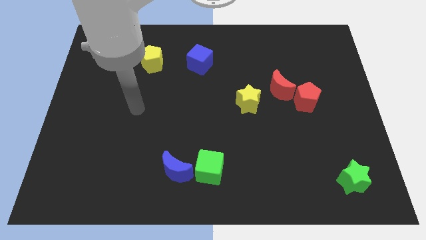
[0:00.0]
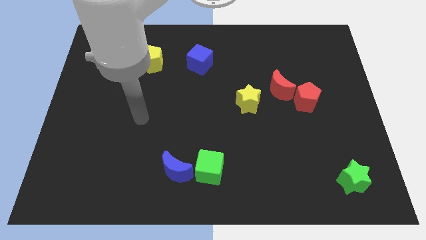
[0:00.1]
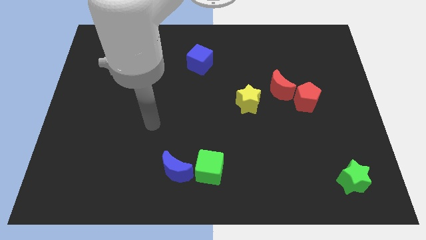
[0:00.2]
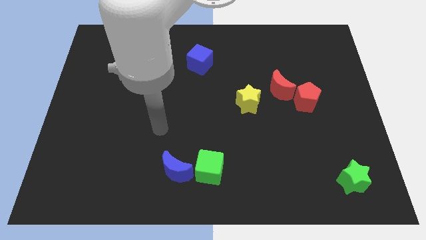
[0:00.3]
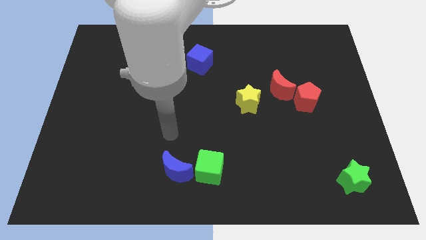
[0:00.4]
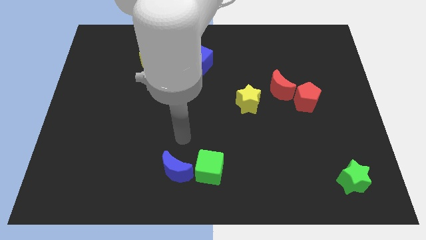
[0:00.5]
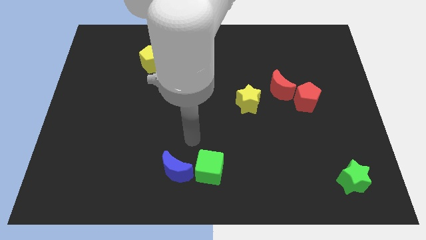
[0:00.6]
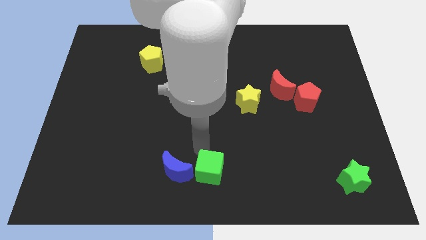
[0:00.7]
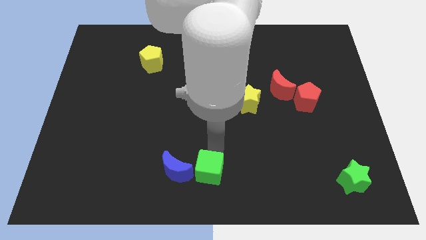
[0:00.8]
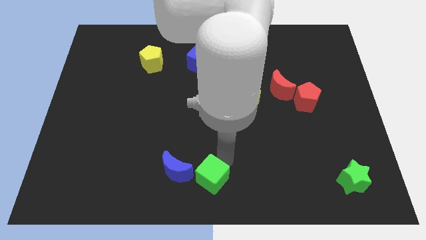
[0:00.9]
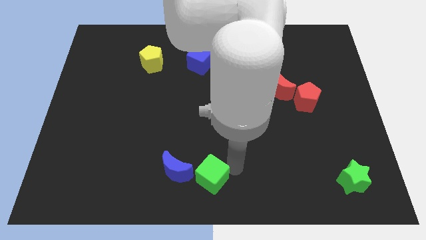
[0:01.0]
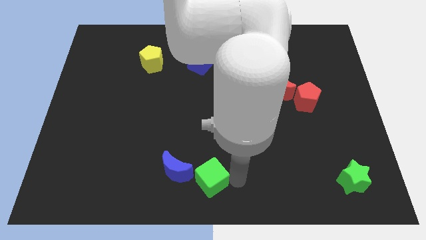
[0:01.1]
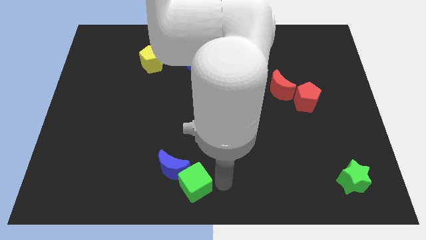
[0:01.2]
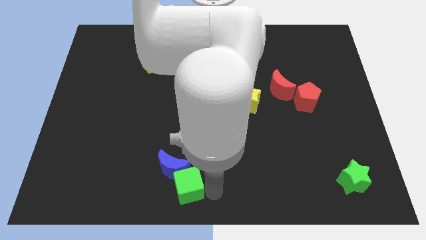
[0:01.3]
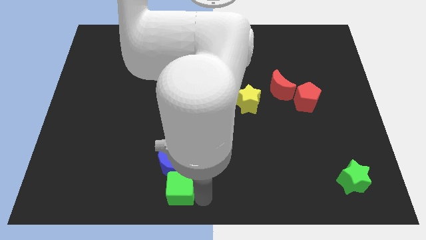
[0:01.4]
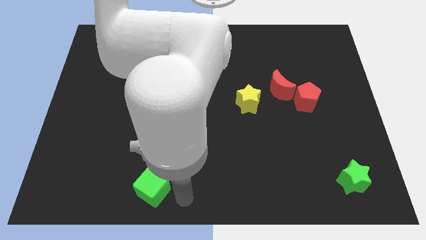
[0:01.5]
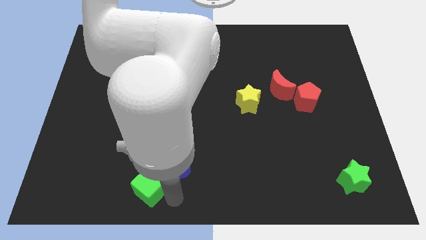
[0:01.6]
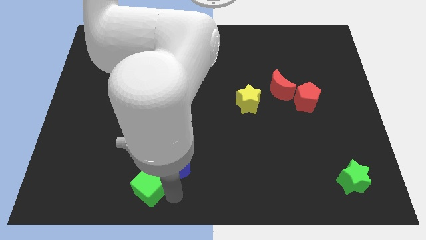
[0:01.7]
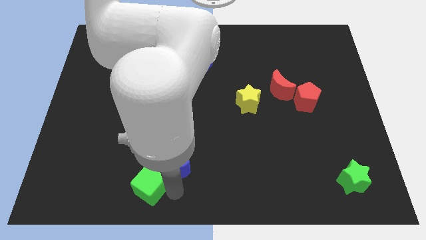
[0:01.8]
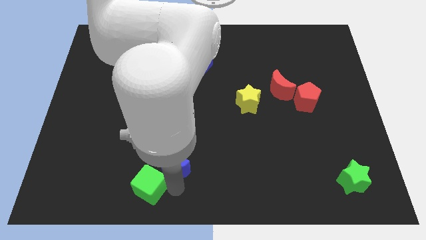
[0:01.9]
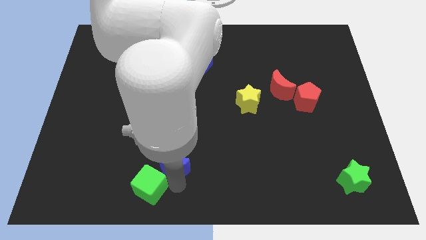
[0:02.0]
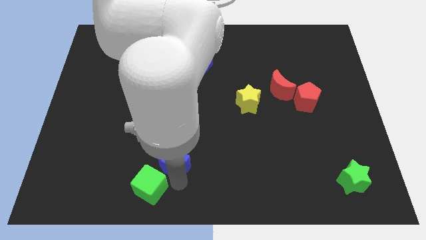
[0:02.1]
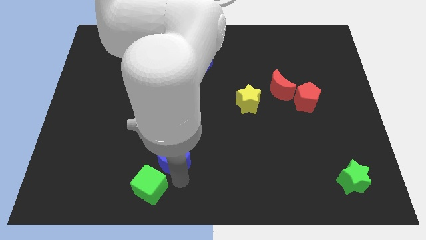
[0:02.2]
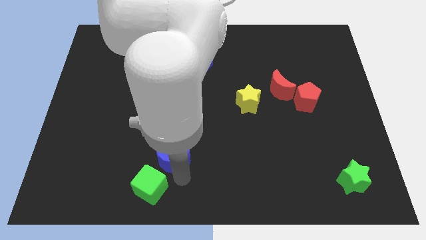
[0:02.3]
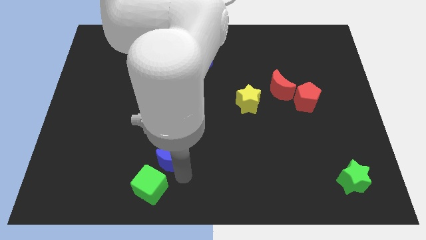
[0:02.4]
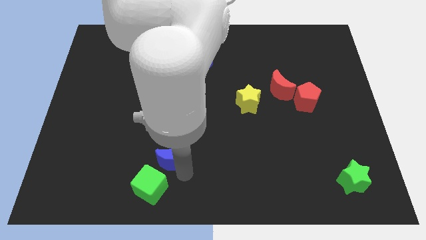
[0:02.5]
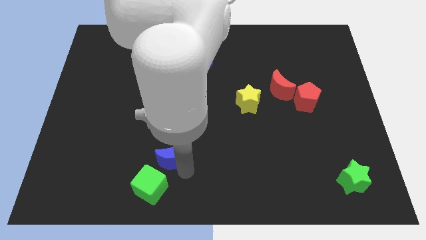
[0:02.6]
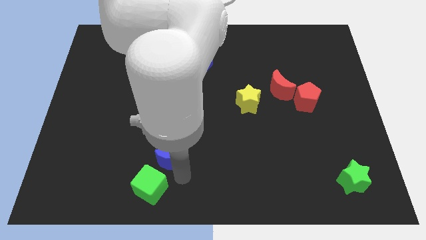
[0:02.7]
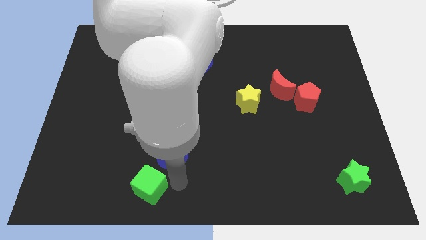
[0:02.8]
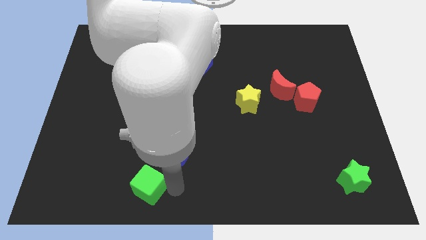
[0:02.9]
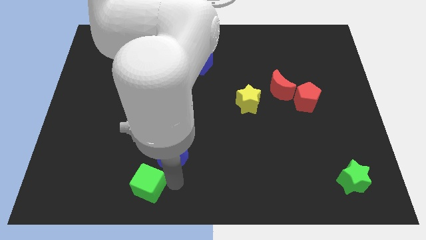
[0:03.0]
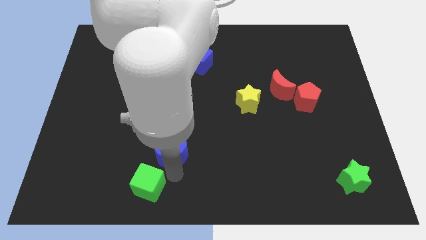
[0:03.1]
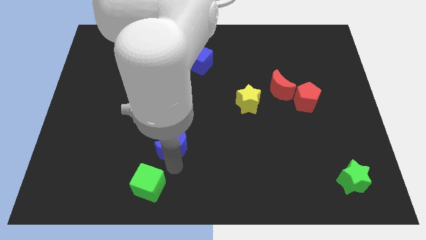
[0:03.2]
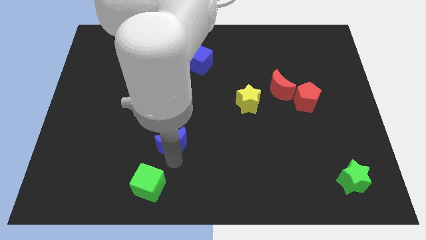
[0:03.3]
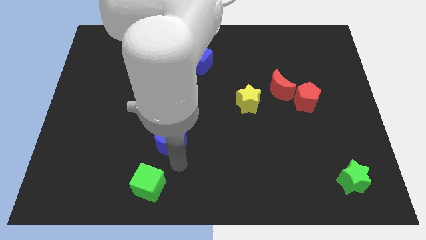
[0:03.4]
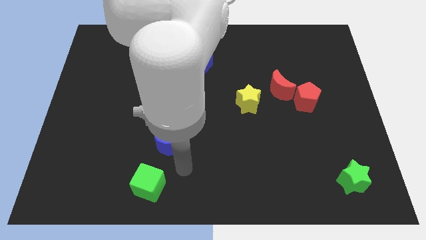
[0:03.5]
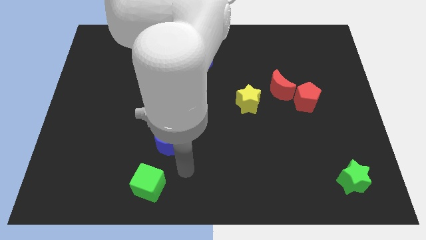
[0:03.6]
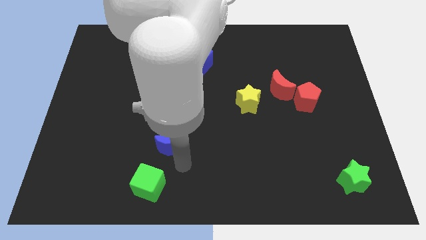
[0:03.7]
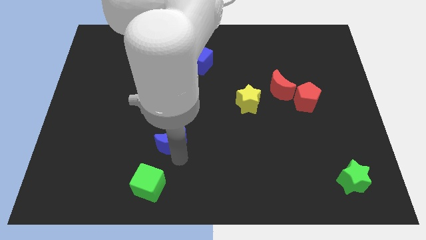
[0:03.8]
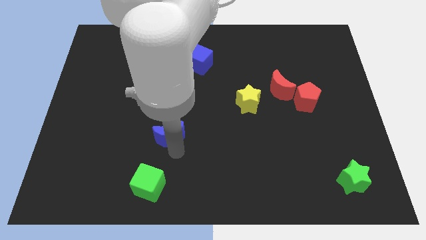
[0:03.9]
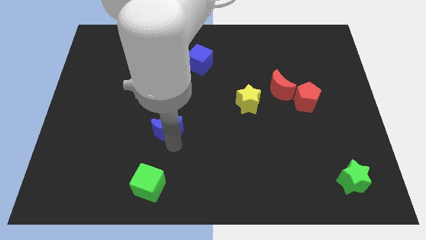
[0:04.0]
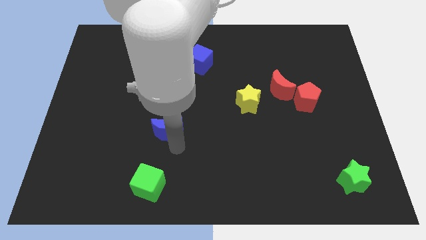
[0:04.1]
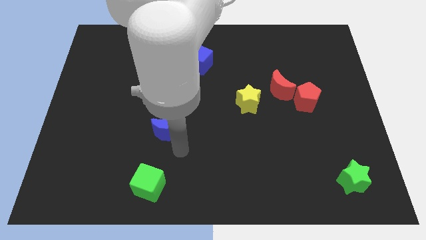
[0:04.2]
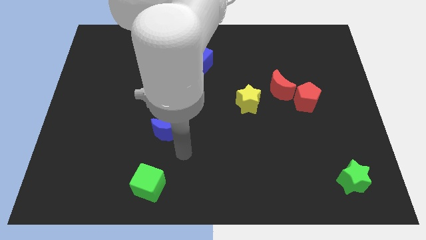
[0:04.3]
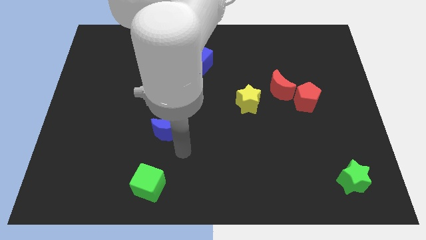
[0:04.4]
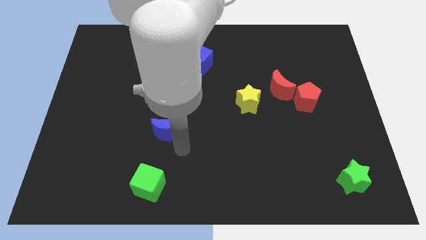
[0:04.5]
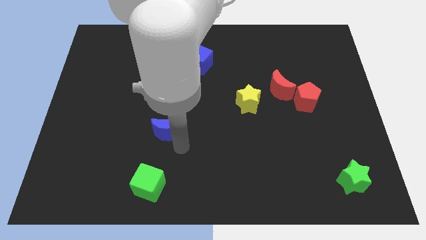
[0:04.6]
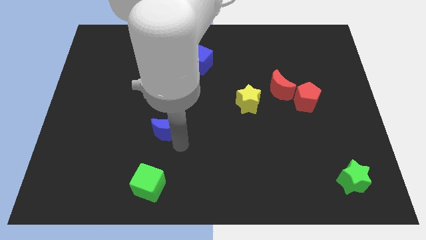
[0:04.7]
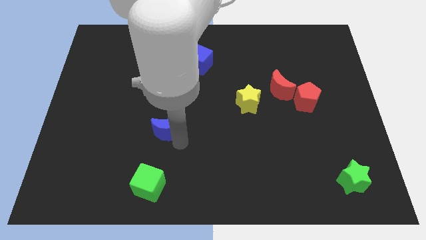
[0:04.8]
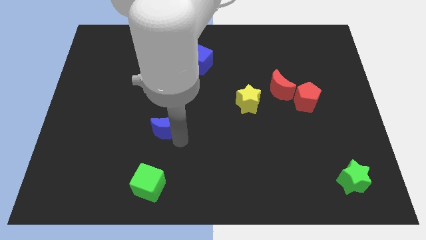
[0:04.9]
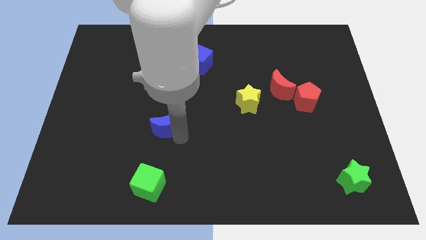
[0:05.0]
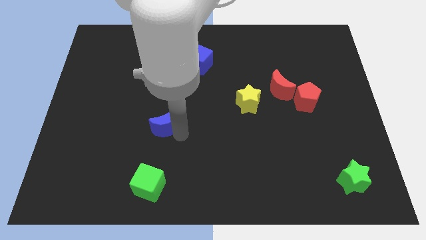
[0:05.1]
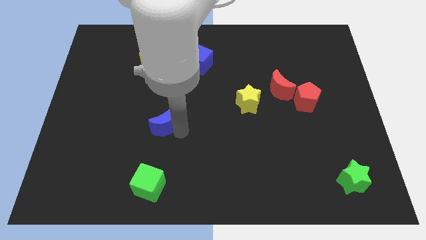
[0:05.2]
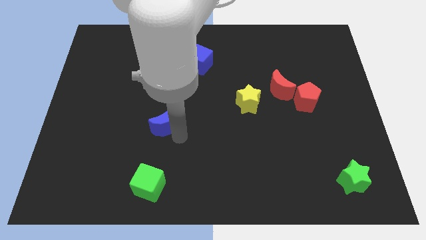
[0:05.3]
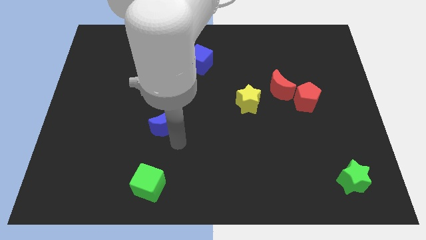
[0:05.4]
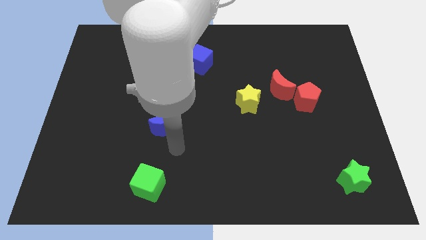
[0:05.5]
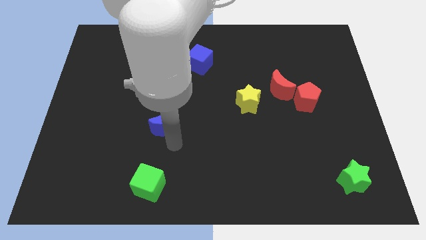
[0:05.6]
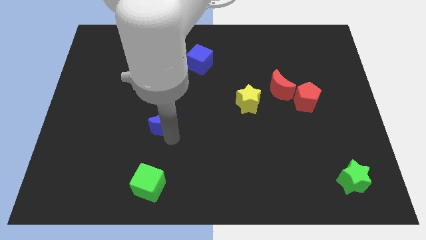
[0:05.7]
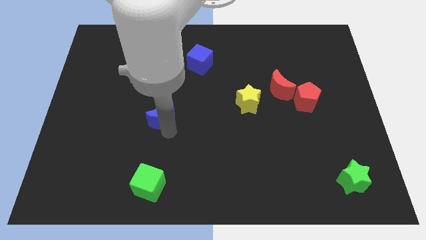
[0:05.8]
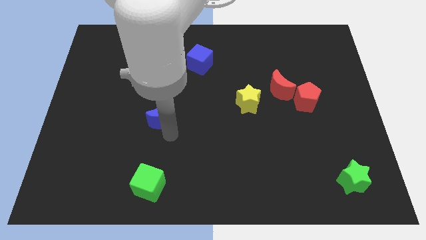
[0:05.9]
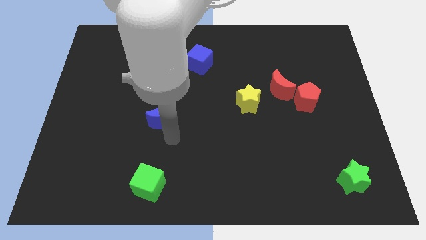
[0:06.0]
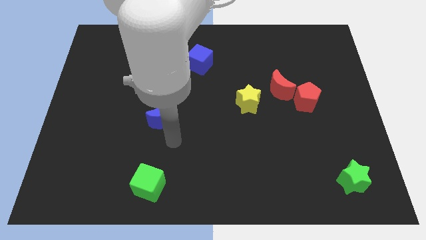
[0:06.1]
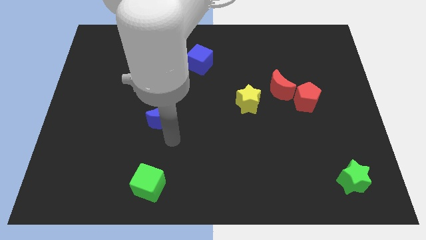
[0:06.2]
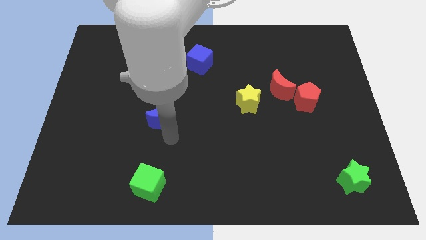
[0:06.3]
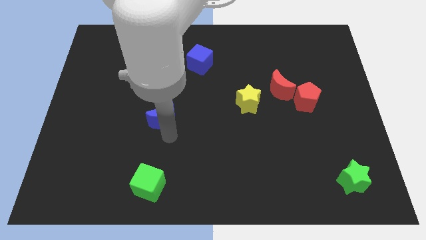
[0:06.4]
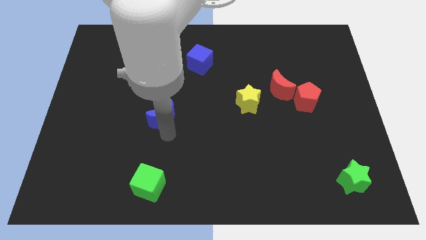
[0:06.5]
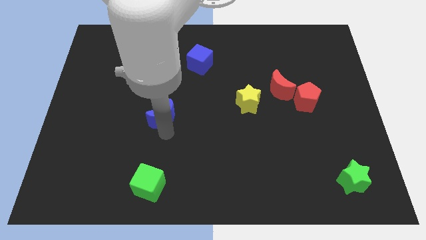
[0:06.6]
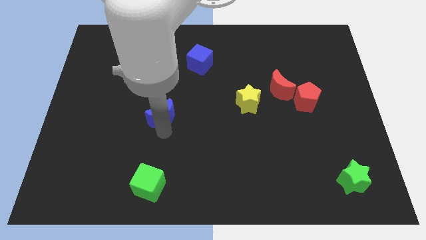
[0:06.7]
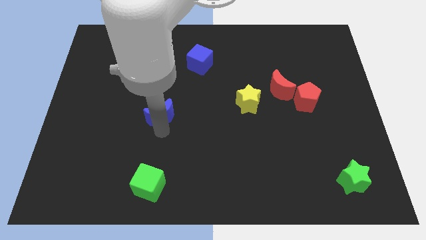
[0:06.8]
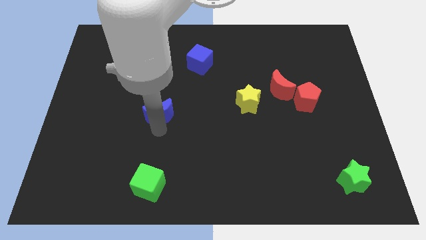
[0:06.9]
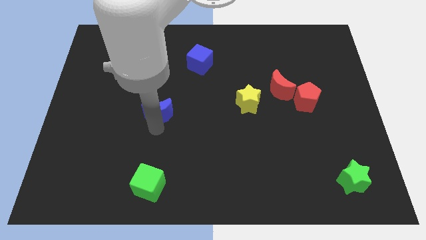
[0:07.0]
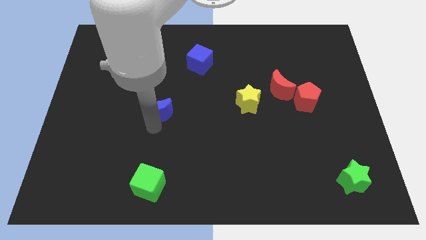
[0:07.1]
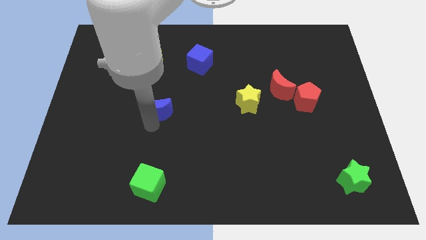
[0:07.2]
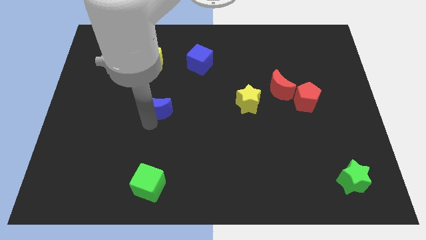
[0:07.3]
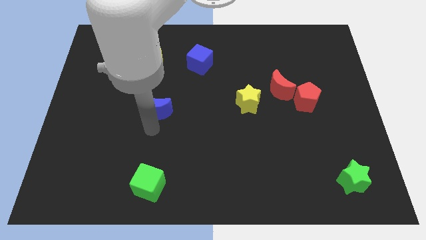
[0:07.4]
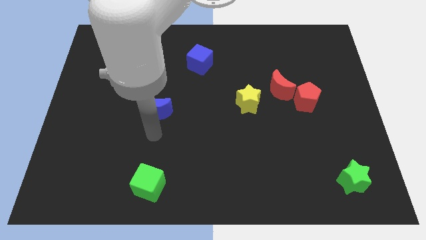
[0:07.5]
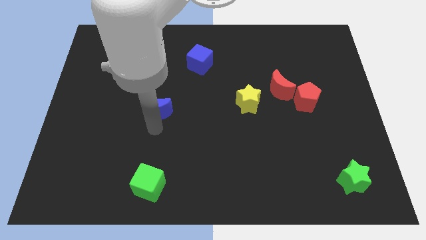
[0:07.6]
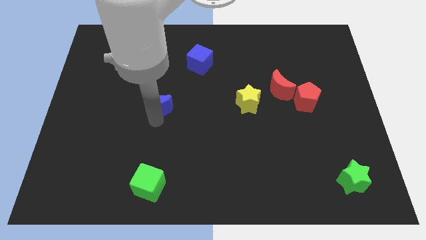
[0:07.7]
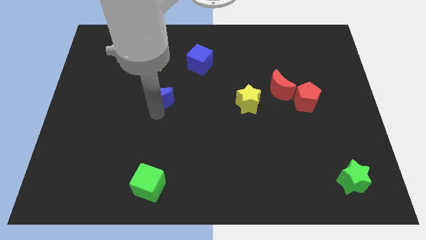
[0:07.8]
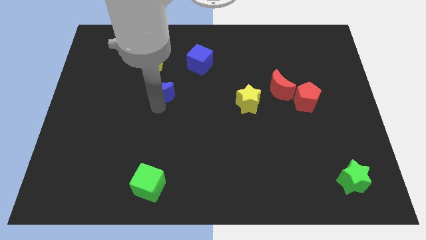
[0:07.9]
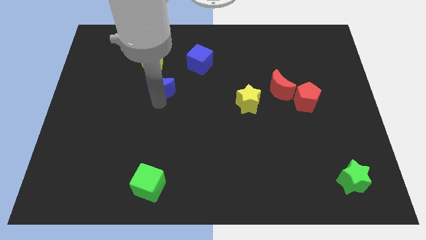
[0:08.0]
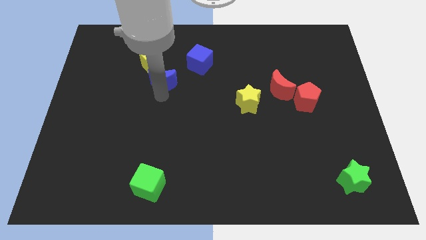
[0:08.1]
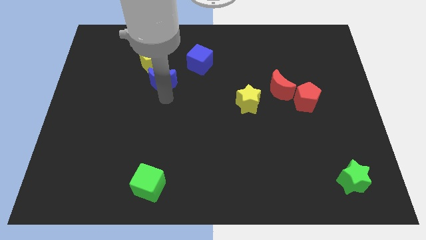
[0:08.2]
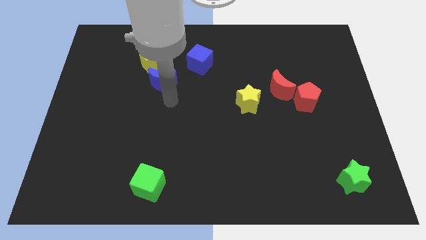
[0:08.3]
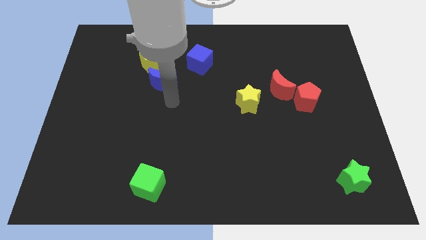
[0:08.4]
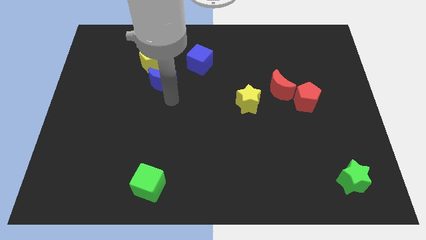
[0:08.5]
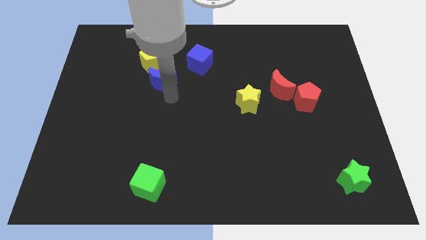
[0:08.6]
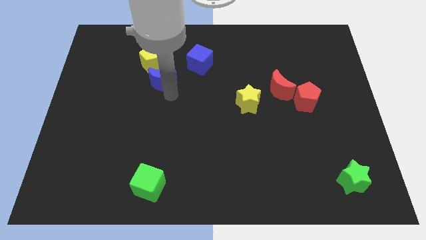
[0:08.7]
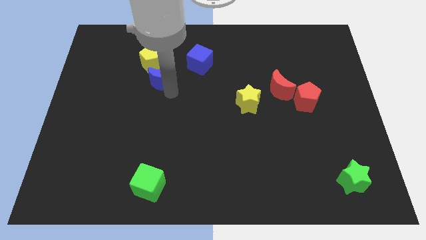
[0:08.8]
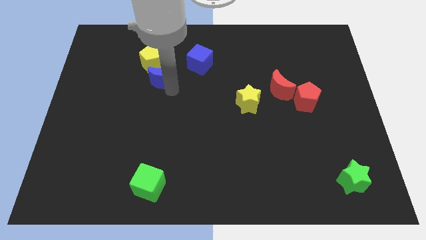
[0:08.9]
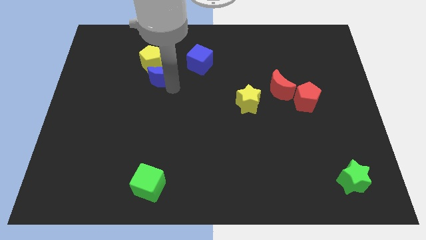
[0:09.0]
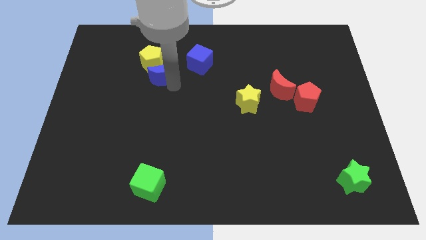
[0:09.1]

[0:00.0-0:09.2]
move the blue moon close to the yellow pentagon
